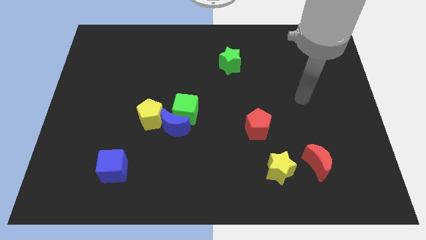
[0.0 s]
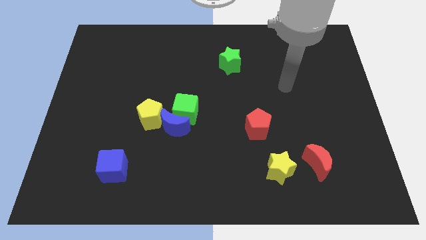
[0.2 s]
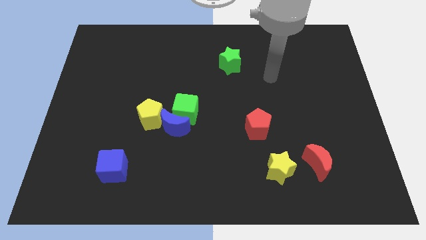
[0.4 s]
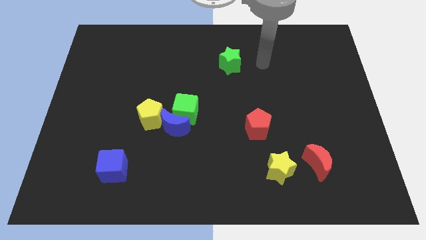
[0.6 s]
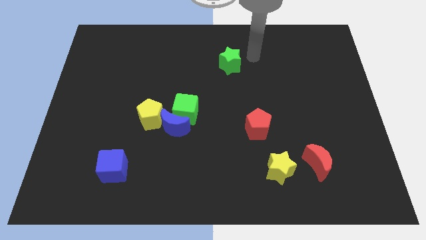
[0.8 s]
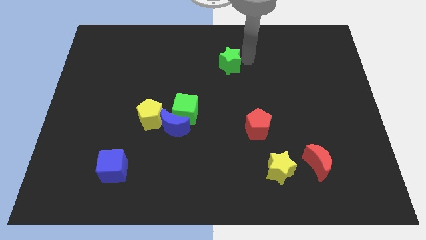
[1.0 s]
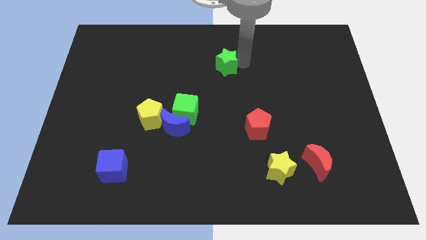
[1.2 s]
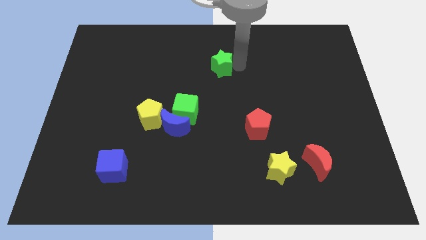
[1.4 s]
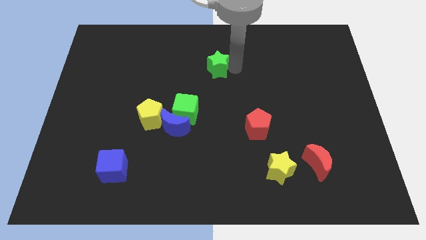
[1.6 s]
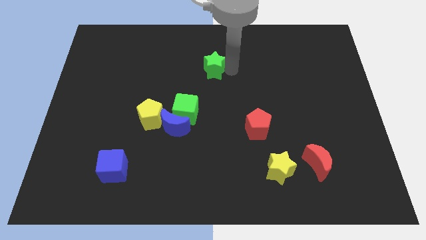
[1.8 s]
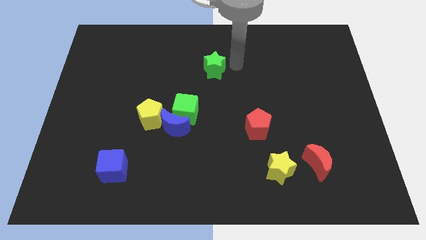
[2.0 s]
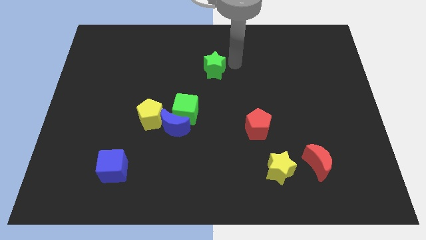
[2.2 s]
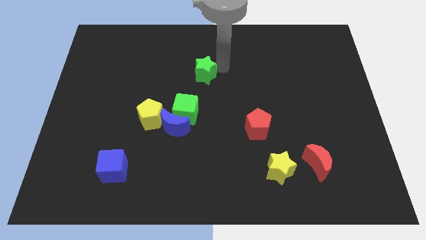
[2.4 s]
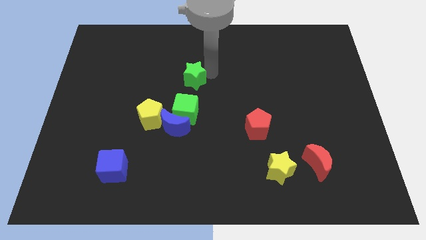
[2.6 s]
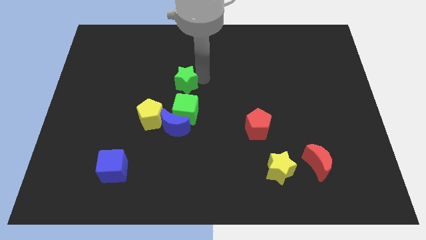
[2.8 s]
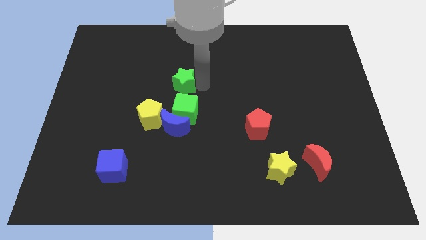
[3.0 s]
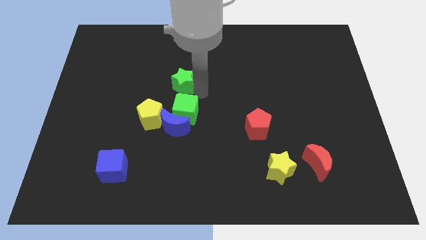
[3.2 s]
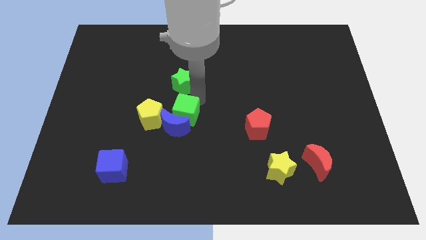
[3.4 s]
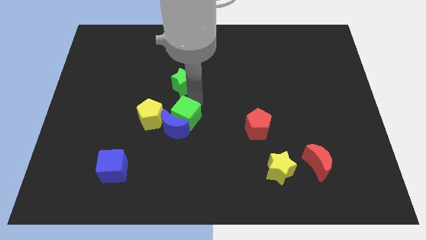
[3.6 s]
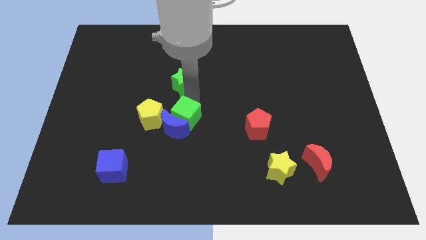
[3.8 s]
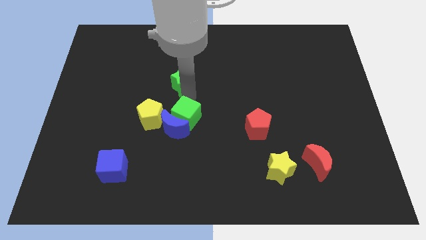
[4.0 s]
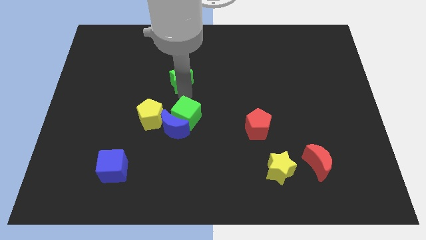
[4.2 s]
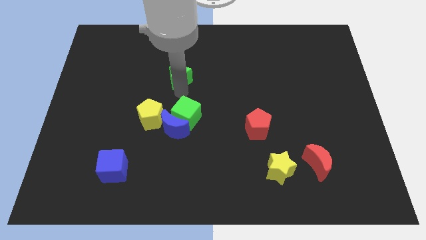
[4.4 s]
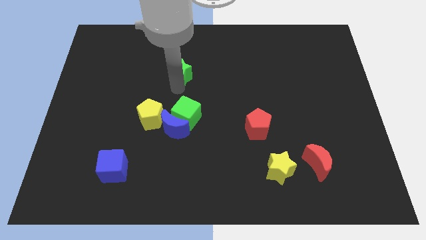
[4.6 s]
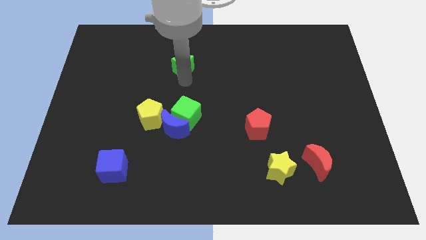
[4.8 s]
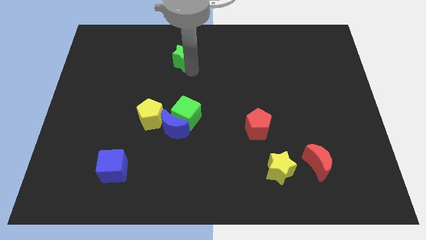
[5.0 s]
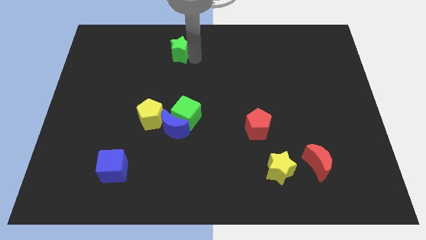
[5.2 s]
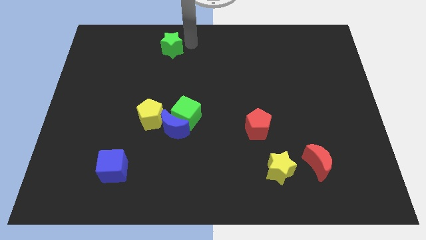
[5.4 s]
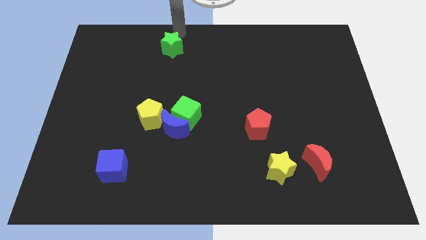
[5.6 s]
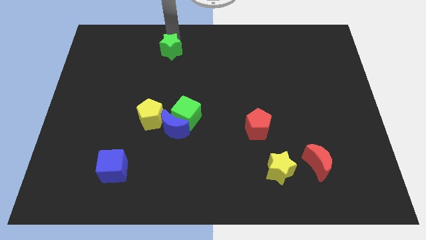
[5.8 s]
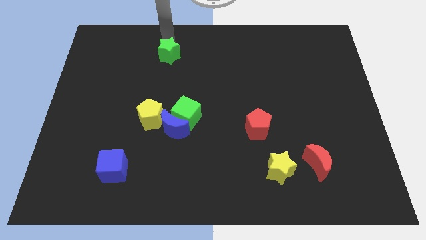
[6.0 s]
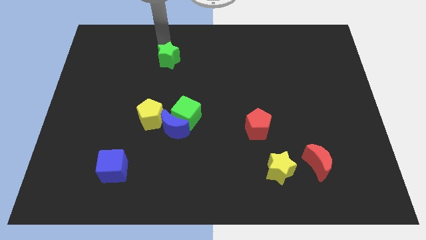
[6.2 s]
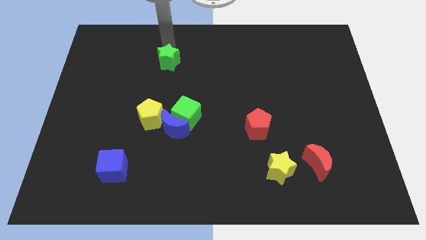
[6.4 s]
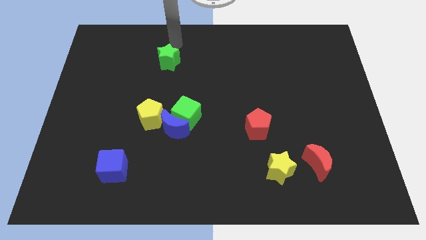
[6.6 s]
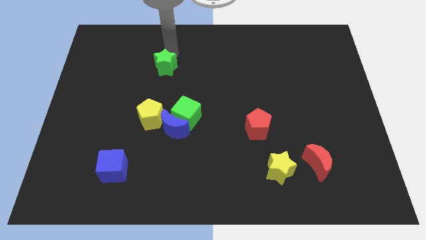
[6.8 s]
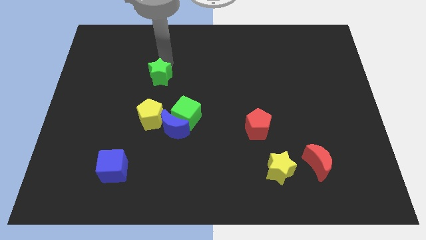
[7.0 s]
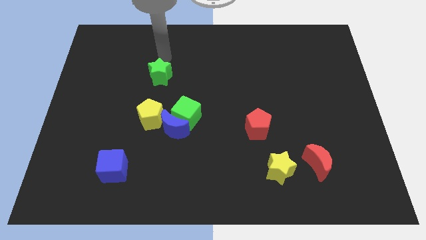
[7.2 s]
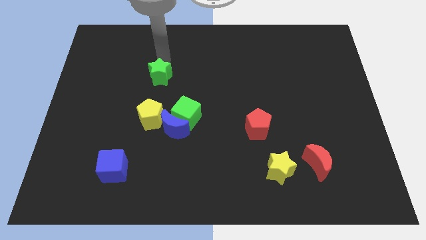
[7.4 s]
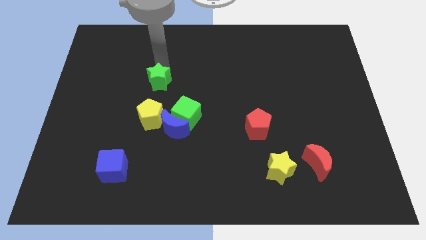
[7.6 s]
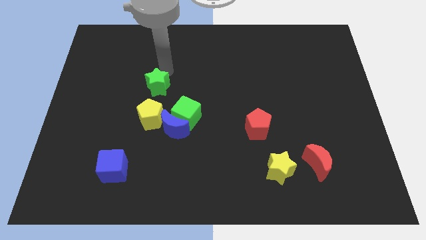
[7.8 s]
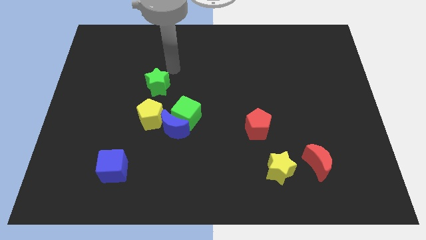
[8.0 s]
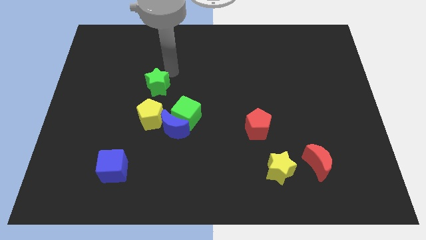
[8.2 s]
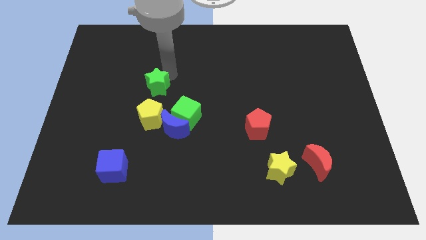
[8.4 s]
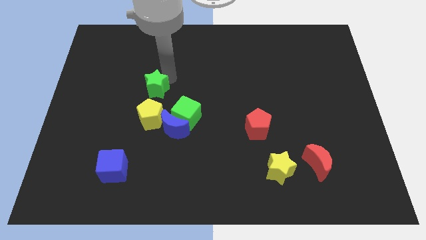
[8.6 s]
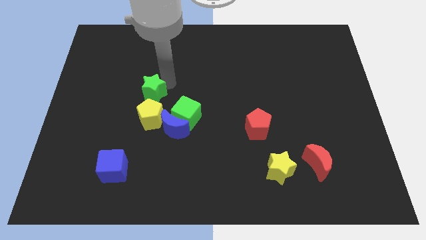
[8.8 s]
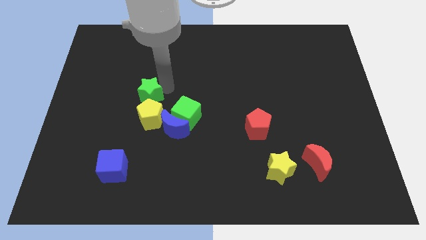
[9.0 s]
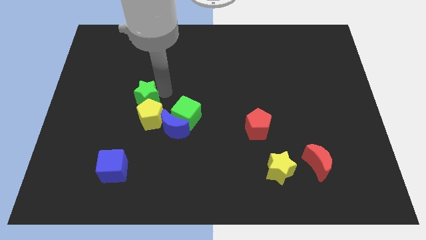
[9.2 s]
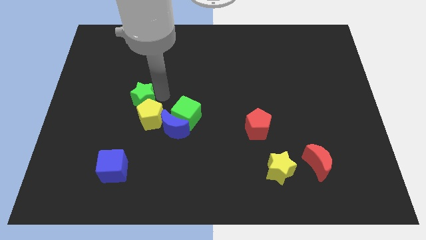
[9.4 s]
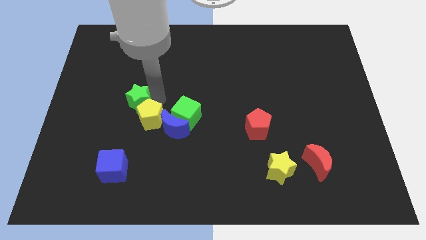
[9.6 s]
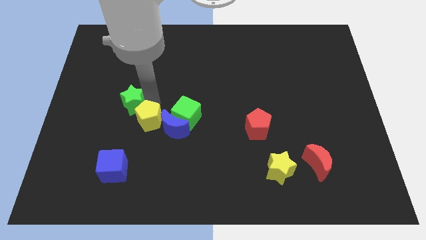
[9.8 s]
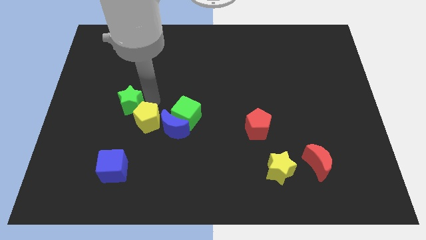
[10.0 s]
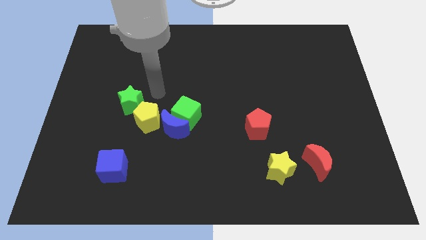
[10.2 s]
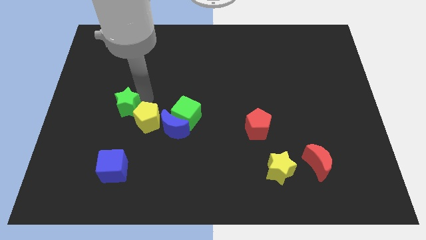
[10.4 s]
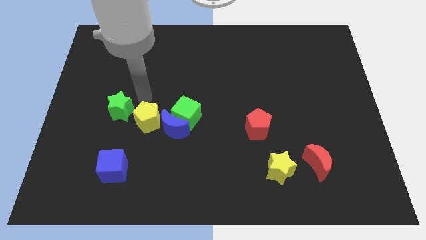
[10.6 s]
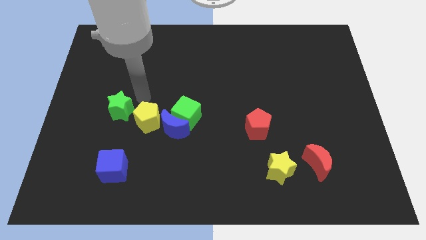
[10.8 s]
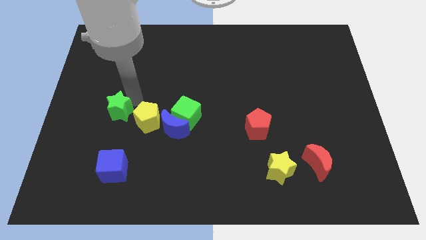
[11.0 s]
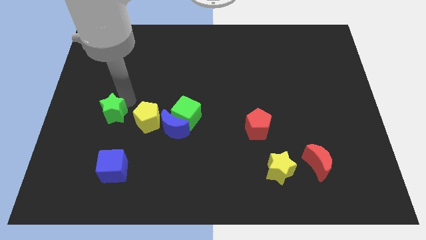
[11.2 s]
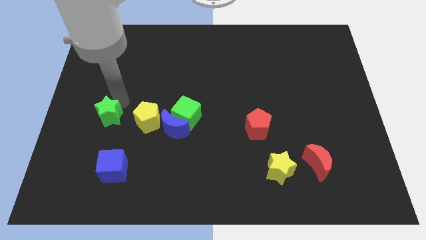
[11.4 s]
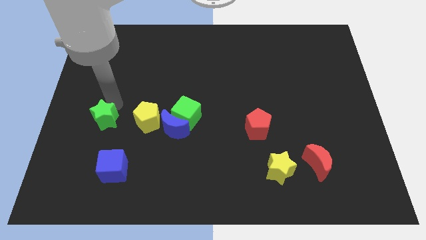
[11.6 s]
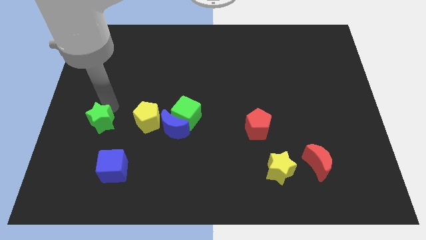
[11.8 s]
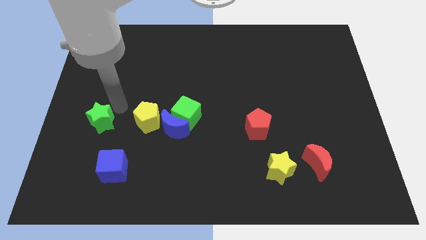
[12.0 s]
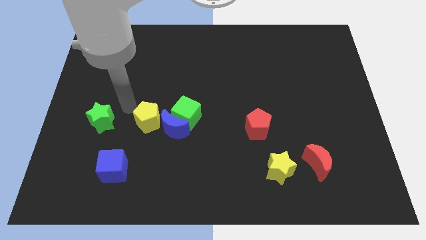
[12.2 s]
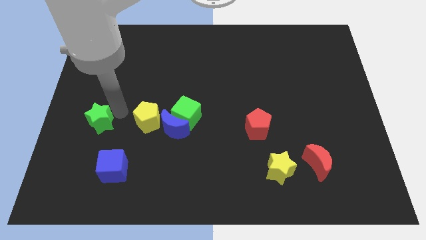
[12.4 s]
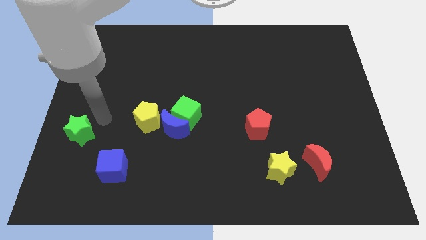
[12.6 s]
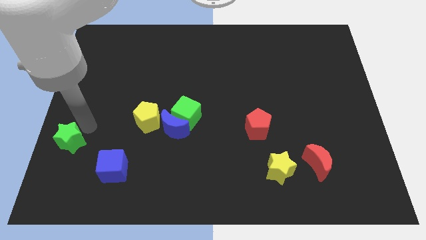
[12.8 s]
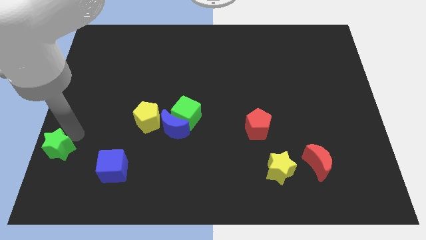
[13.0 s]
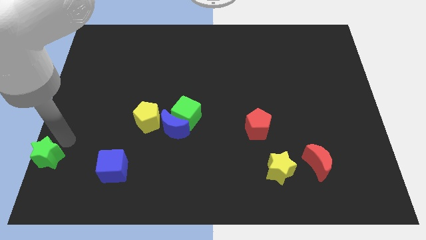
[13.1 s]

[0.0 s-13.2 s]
slide the green star to the bottom left

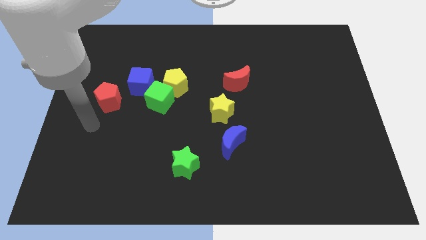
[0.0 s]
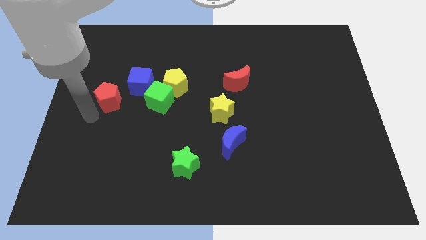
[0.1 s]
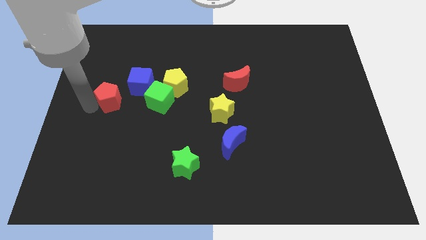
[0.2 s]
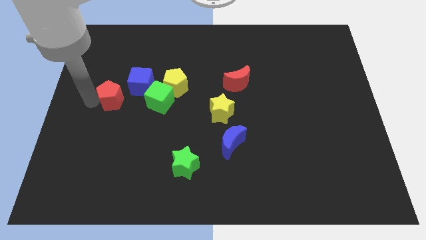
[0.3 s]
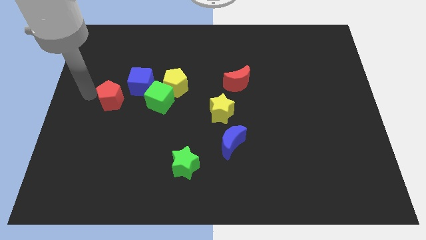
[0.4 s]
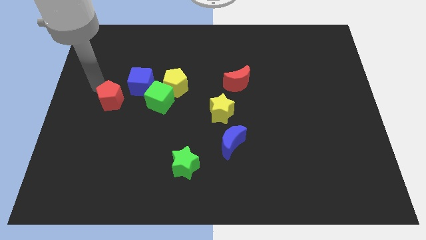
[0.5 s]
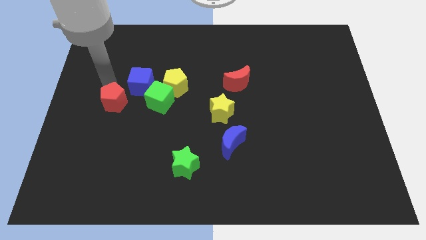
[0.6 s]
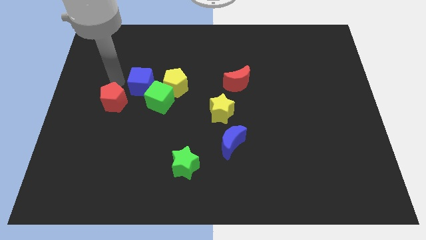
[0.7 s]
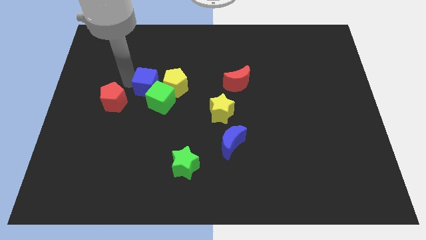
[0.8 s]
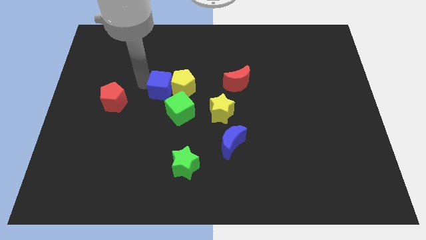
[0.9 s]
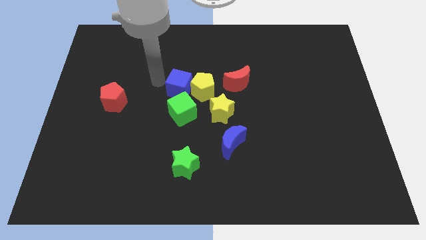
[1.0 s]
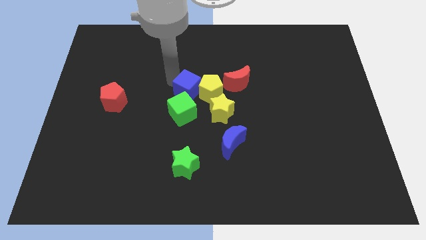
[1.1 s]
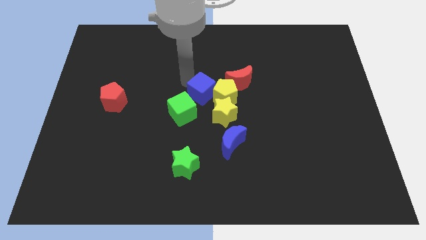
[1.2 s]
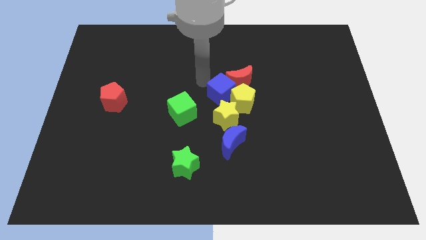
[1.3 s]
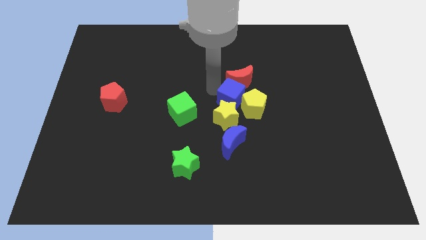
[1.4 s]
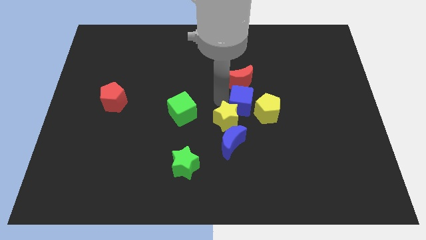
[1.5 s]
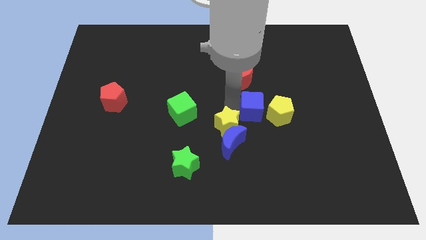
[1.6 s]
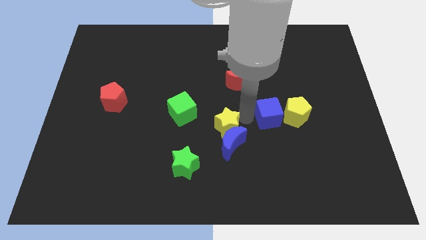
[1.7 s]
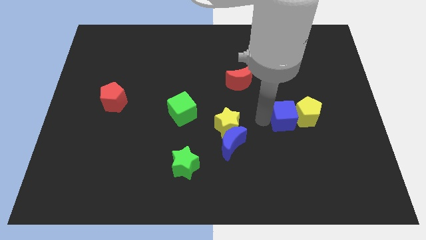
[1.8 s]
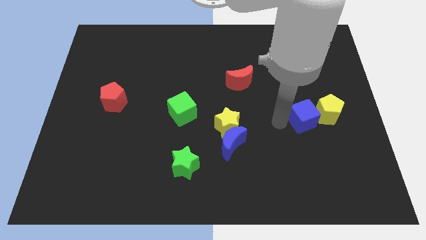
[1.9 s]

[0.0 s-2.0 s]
move the yellow pentagon to the right side
